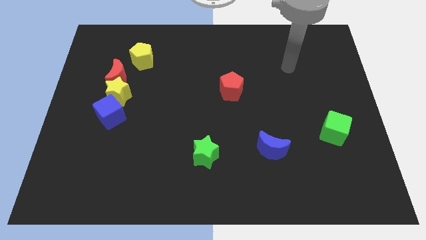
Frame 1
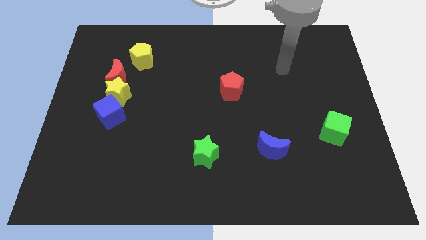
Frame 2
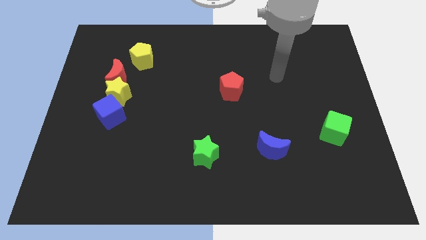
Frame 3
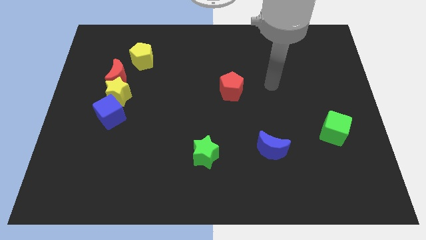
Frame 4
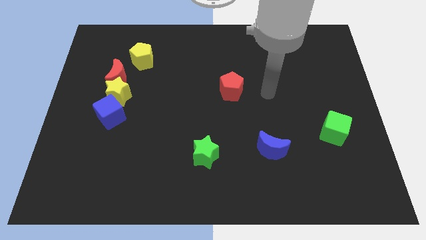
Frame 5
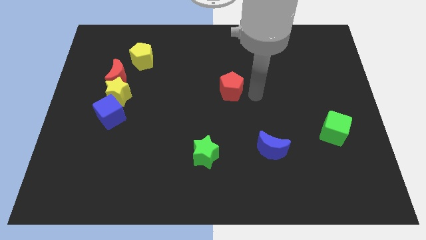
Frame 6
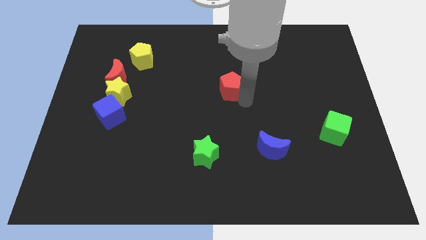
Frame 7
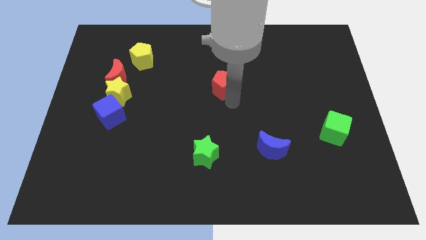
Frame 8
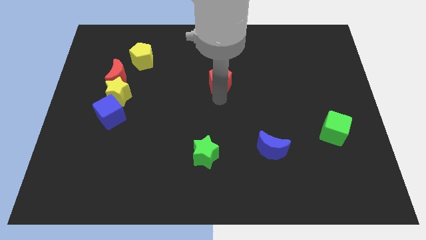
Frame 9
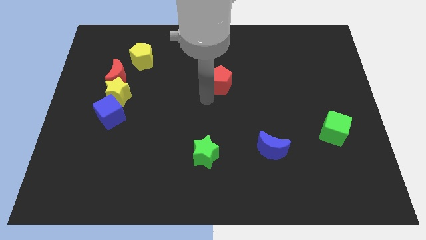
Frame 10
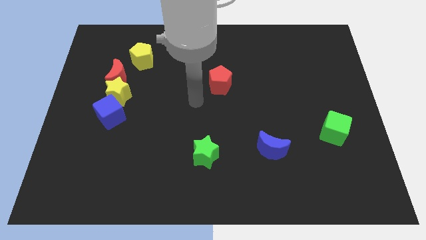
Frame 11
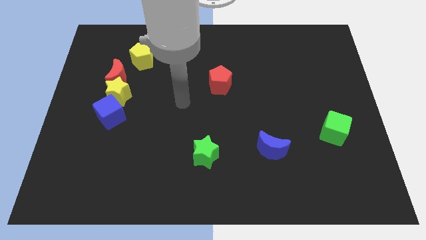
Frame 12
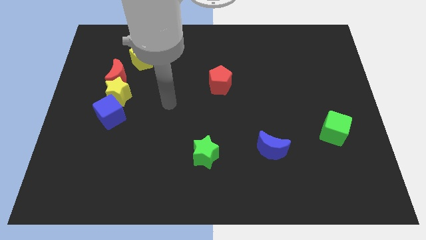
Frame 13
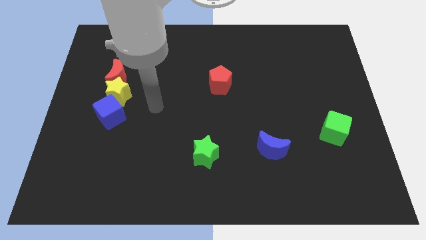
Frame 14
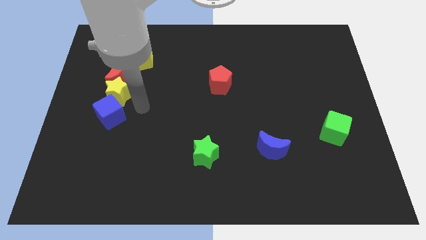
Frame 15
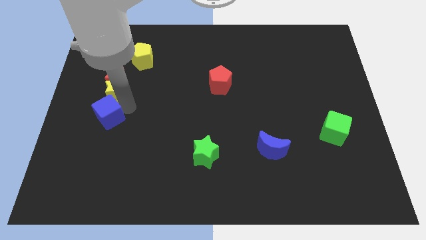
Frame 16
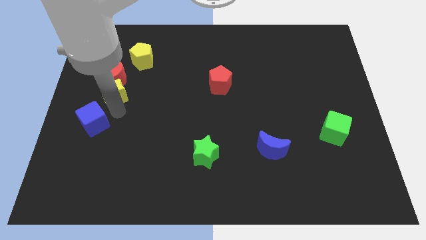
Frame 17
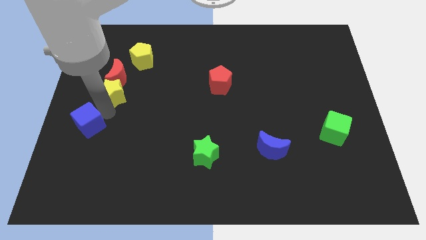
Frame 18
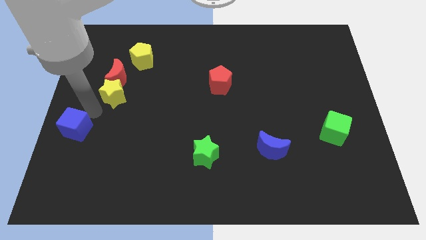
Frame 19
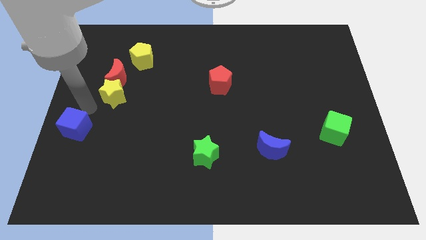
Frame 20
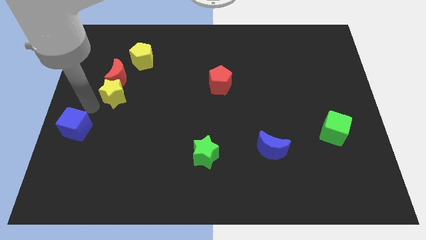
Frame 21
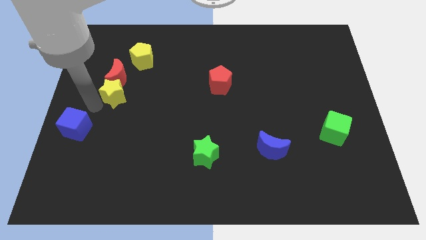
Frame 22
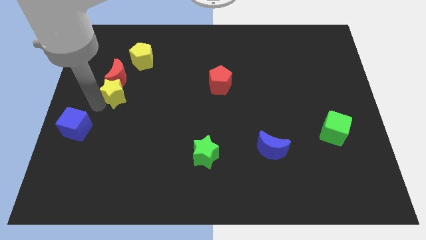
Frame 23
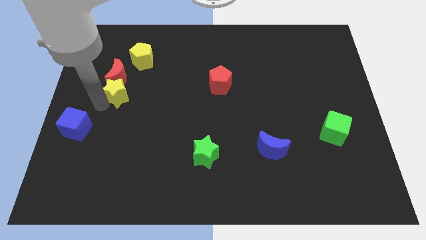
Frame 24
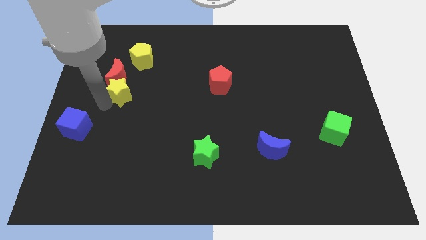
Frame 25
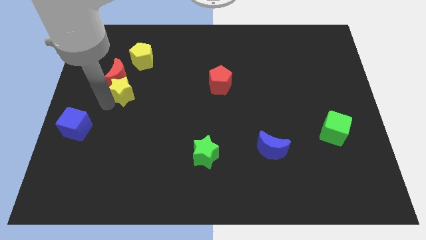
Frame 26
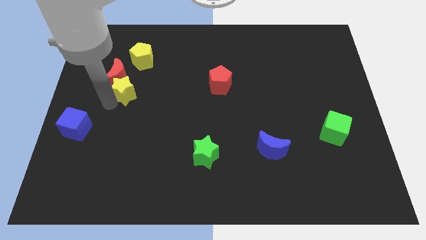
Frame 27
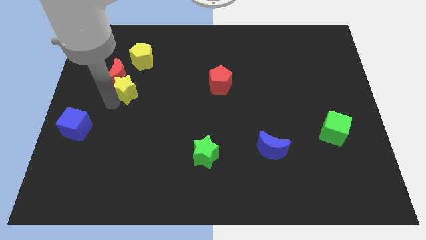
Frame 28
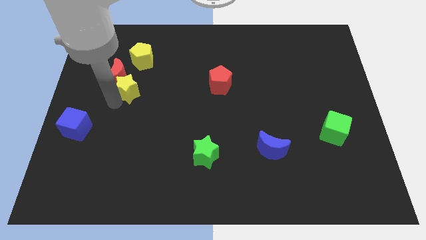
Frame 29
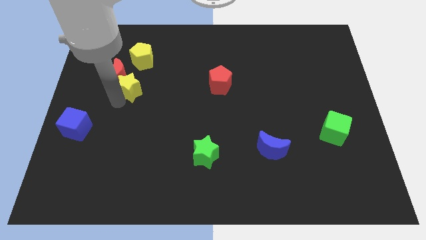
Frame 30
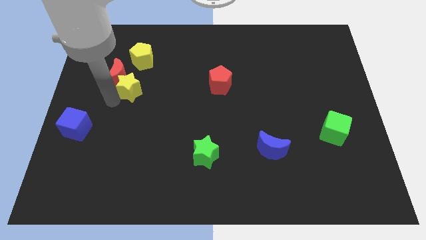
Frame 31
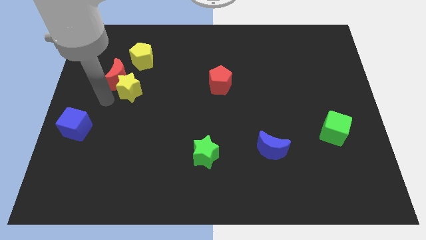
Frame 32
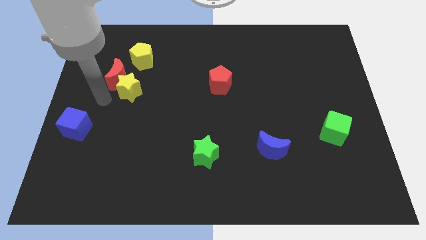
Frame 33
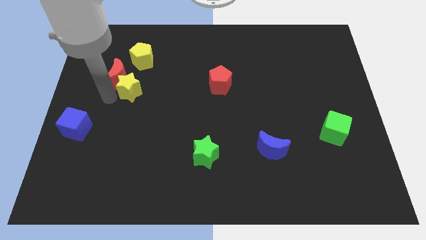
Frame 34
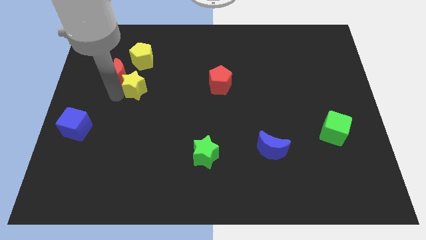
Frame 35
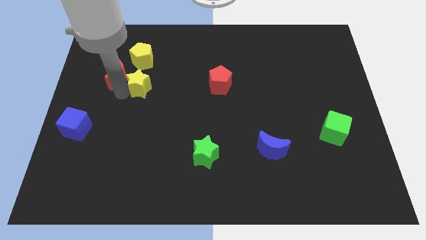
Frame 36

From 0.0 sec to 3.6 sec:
move the yellow star away from the red moon and blue cube

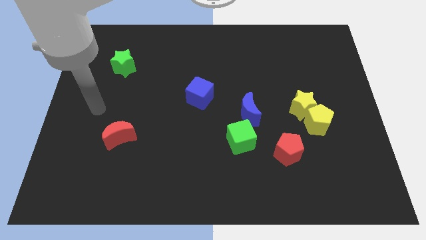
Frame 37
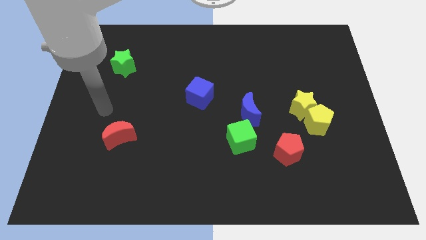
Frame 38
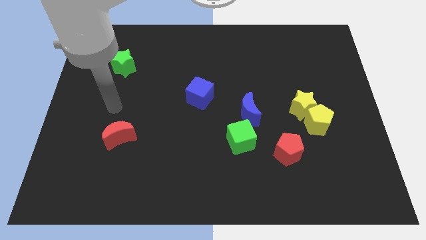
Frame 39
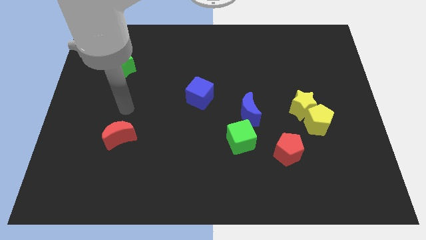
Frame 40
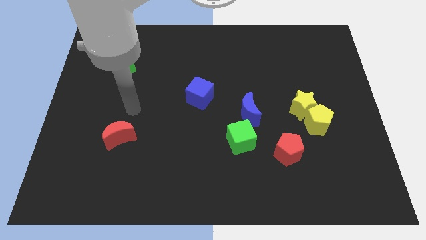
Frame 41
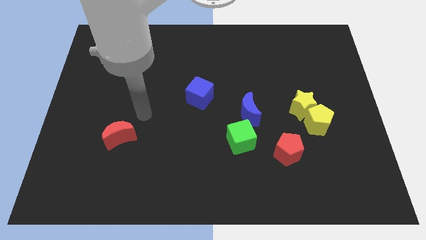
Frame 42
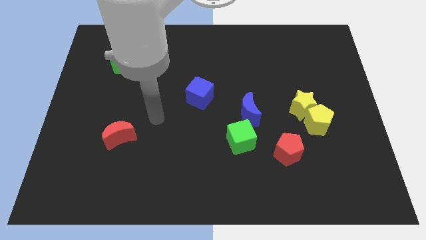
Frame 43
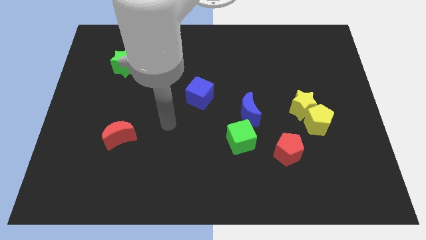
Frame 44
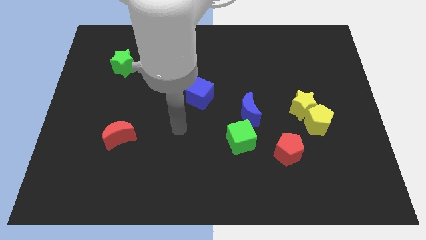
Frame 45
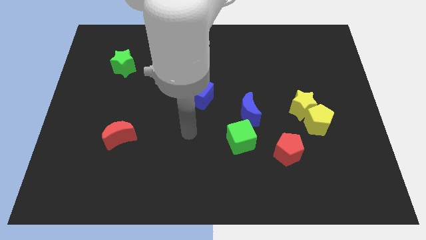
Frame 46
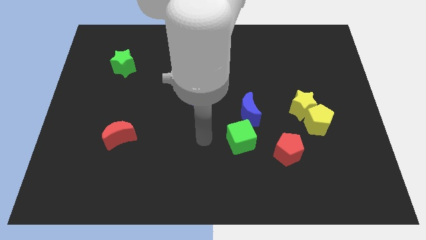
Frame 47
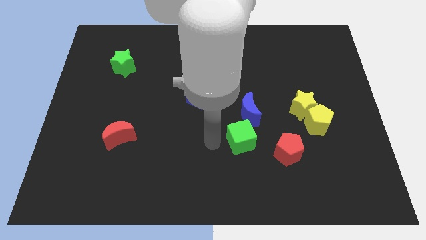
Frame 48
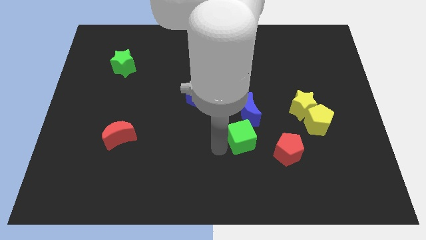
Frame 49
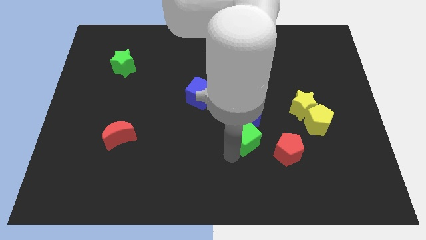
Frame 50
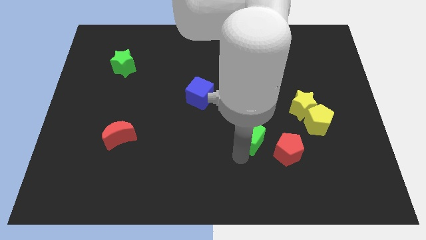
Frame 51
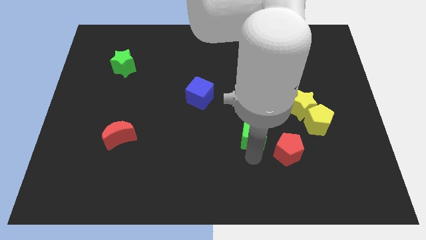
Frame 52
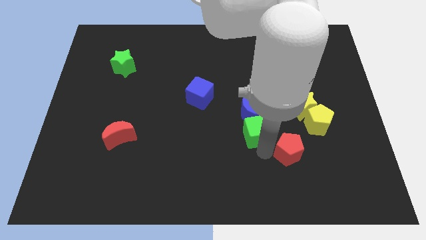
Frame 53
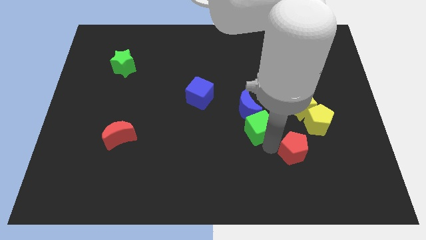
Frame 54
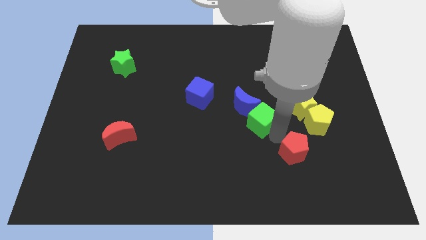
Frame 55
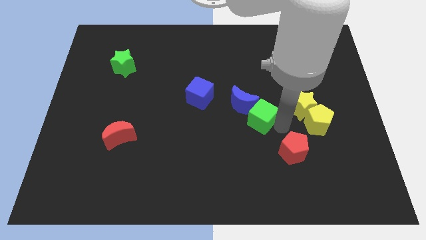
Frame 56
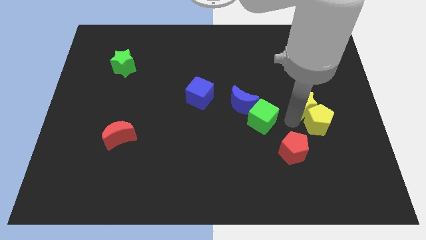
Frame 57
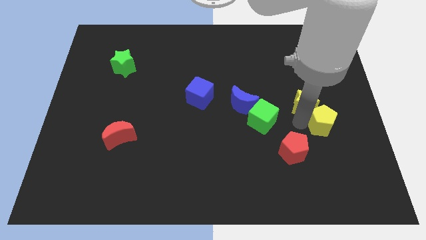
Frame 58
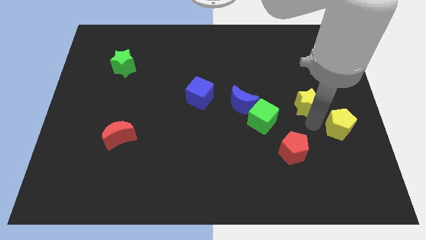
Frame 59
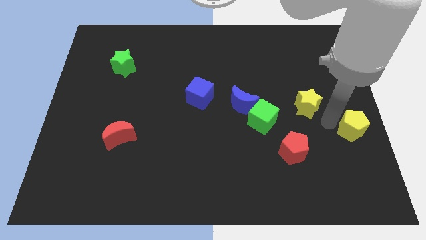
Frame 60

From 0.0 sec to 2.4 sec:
separate the yellow star from the yellow pentagon

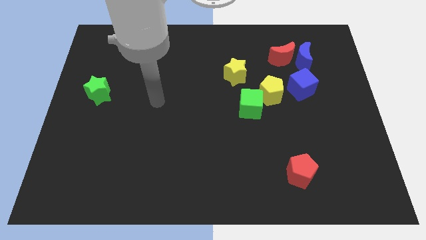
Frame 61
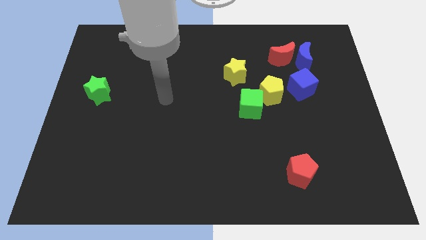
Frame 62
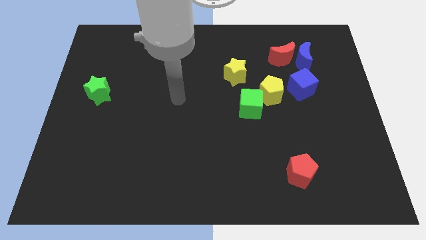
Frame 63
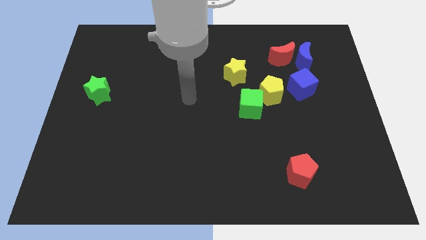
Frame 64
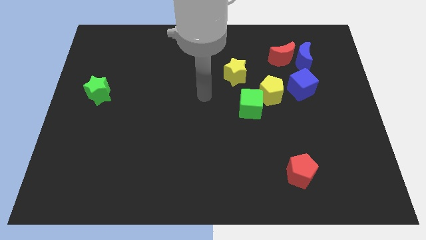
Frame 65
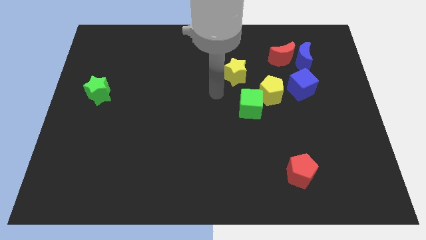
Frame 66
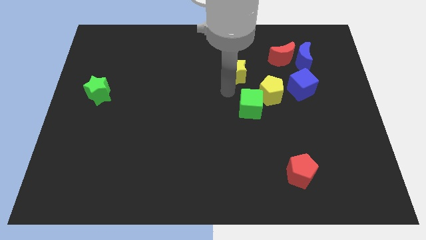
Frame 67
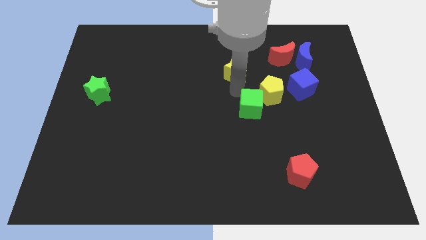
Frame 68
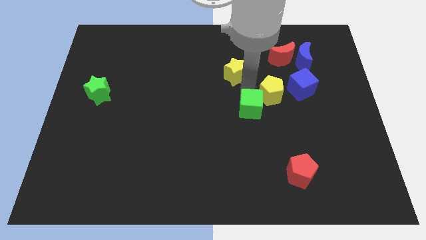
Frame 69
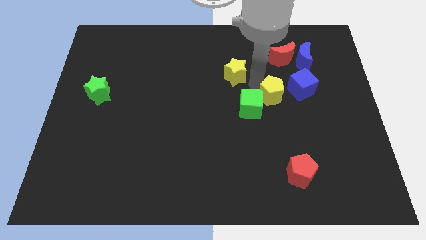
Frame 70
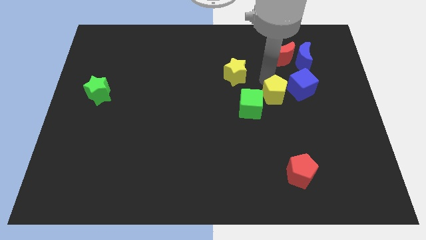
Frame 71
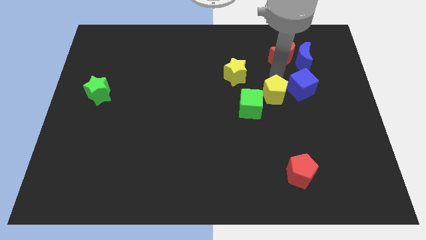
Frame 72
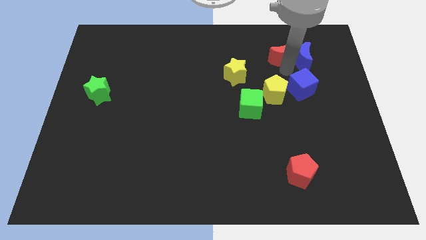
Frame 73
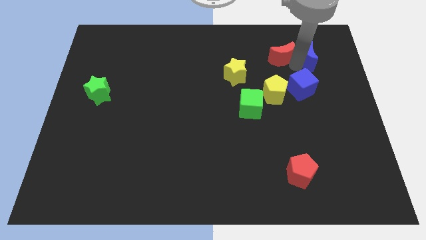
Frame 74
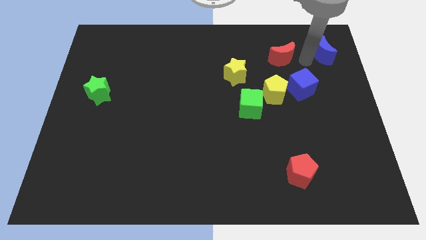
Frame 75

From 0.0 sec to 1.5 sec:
separate the red moon from the blue moon

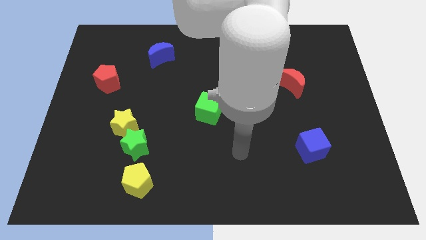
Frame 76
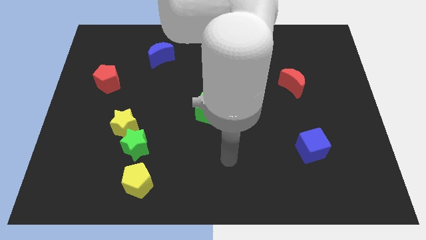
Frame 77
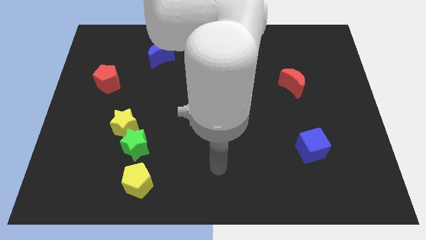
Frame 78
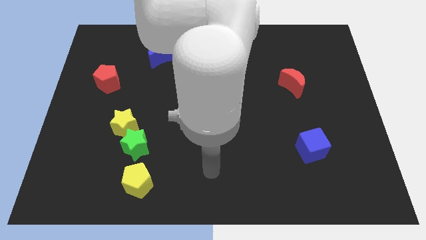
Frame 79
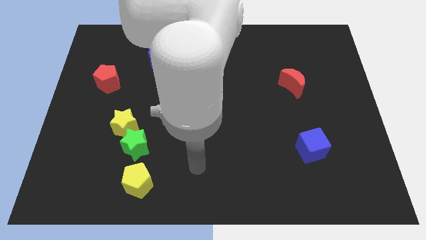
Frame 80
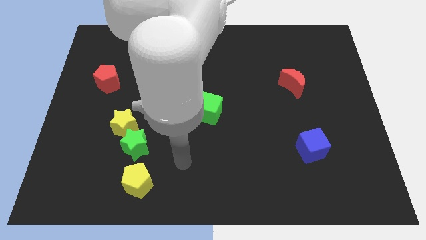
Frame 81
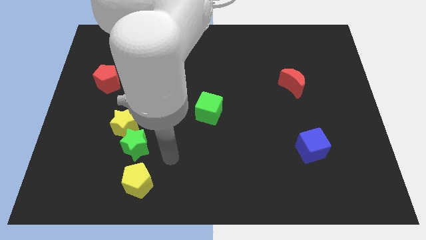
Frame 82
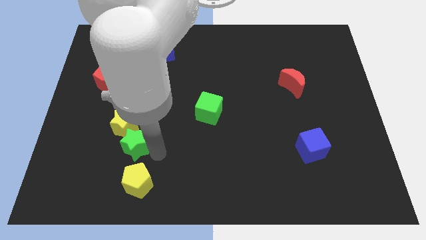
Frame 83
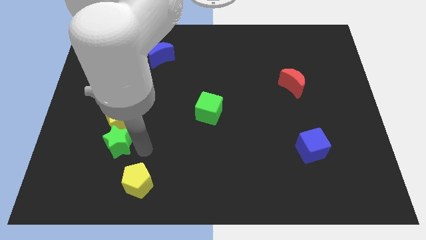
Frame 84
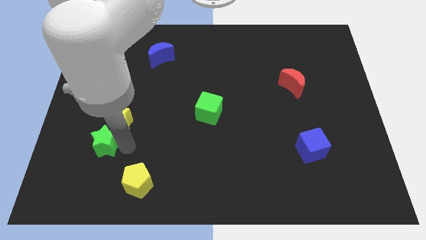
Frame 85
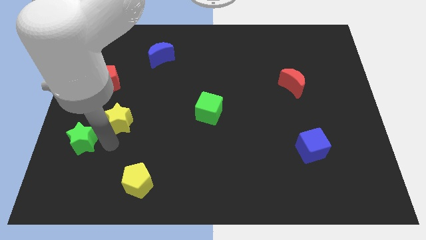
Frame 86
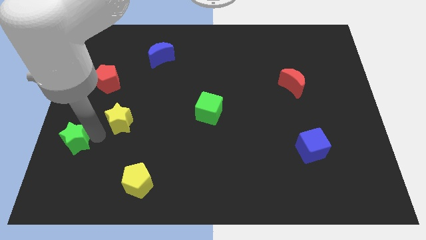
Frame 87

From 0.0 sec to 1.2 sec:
pull the yellow star apart from the green star

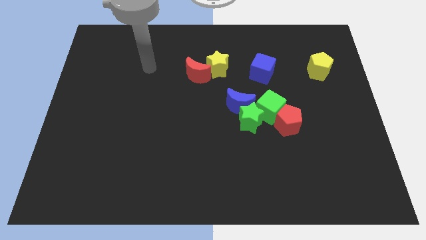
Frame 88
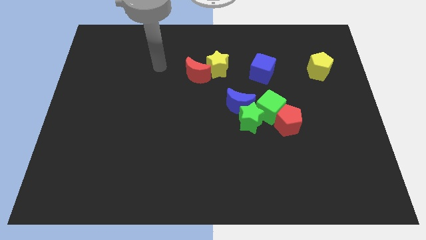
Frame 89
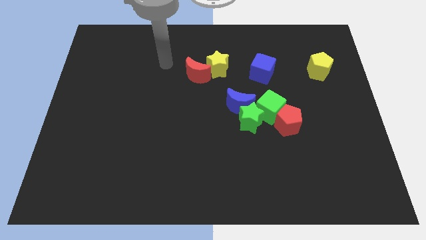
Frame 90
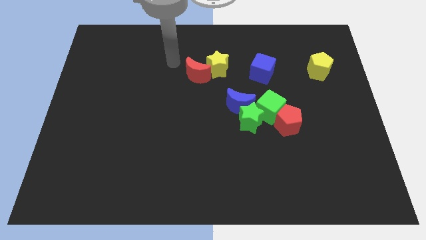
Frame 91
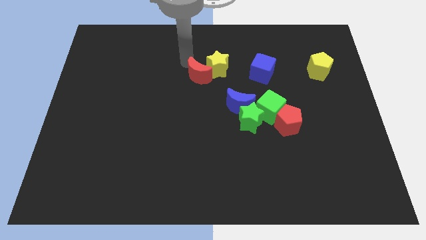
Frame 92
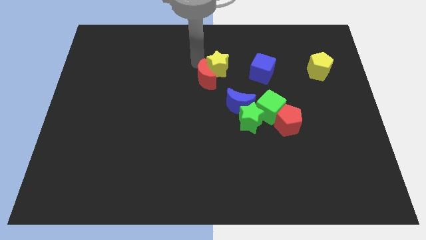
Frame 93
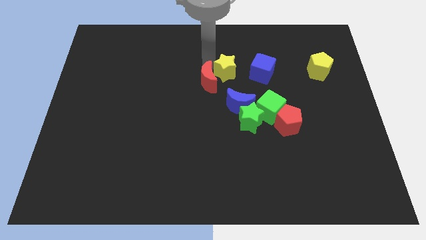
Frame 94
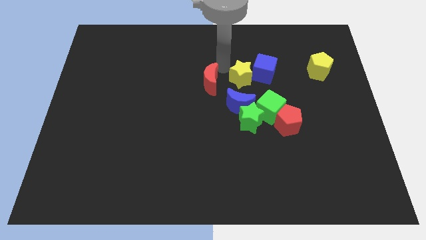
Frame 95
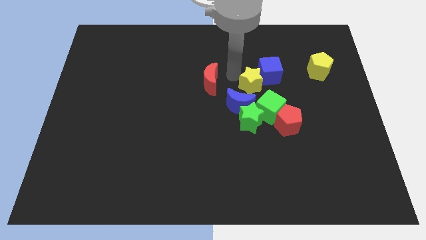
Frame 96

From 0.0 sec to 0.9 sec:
move the red moon away from the yellow star
